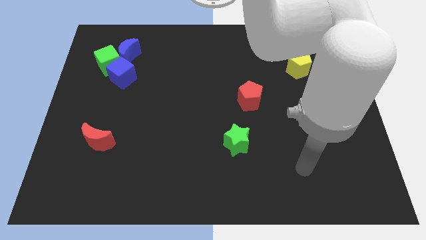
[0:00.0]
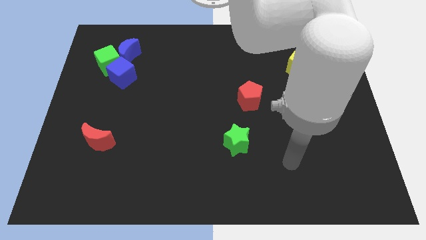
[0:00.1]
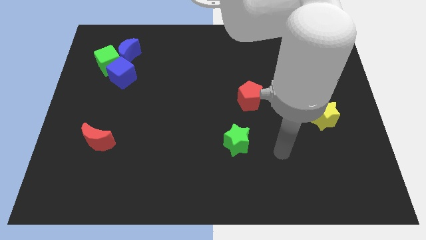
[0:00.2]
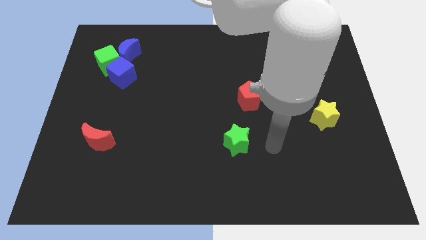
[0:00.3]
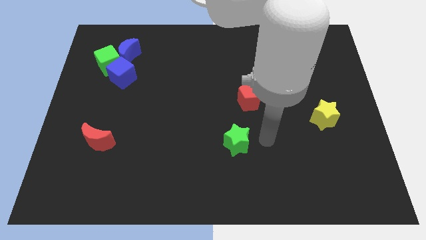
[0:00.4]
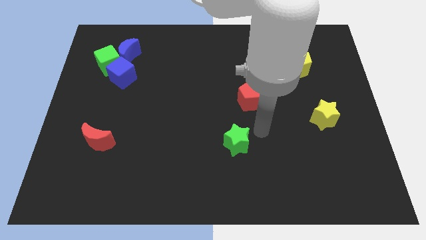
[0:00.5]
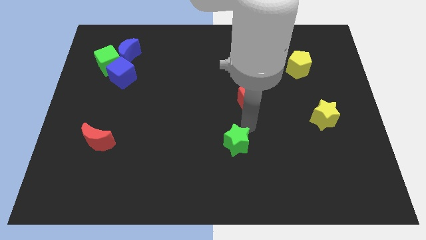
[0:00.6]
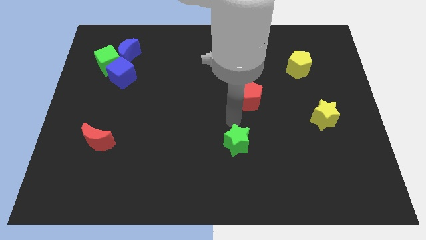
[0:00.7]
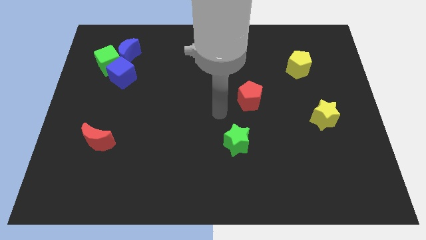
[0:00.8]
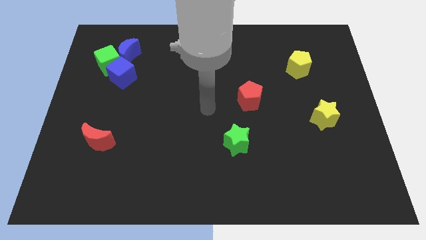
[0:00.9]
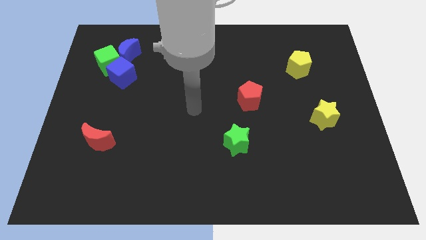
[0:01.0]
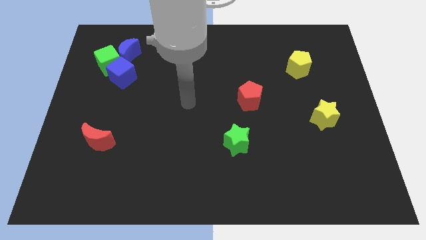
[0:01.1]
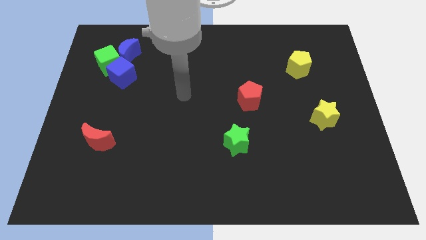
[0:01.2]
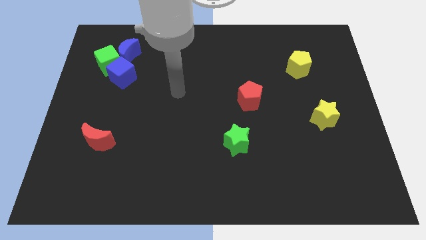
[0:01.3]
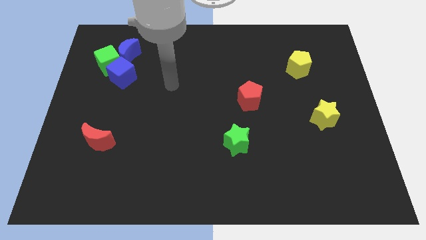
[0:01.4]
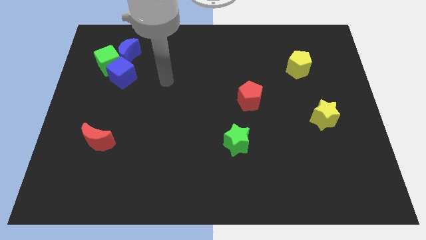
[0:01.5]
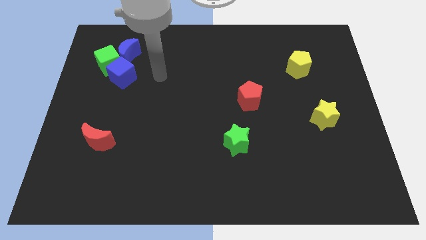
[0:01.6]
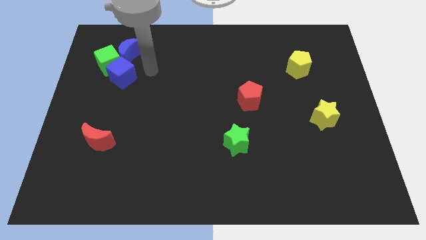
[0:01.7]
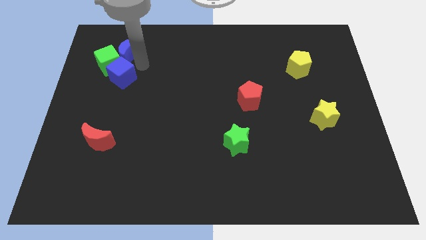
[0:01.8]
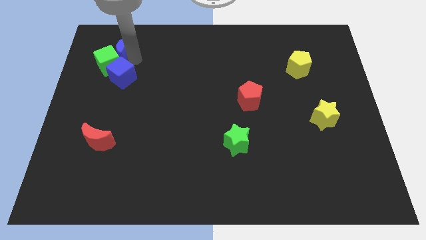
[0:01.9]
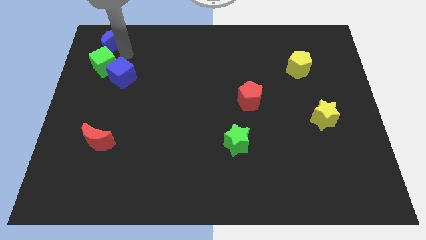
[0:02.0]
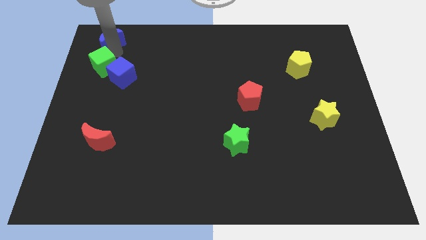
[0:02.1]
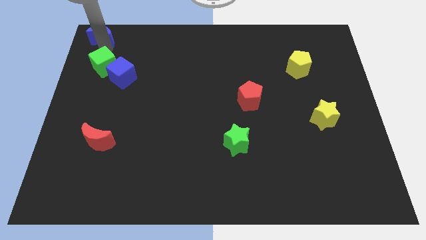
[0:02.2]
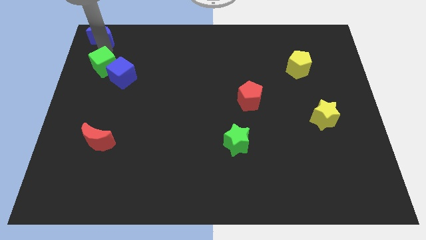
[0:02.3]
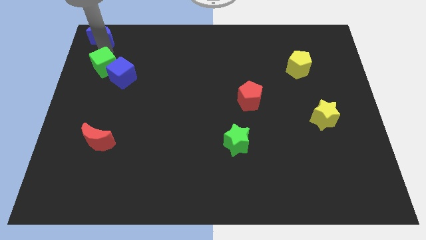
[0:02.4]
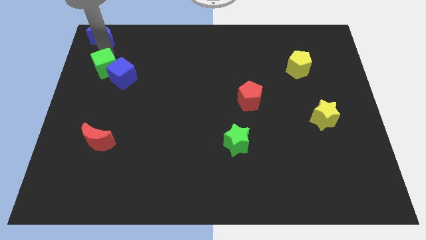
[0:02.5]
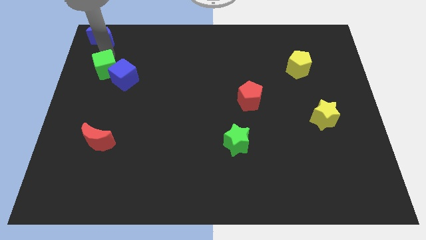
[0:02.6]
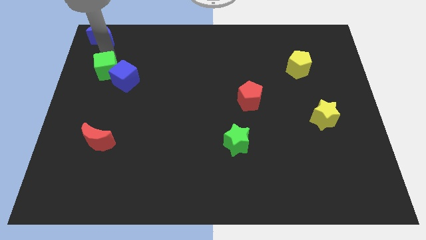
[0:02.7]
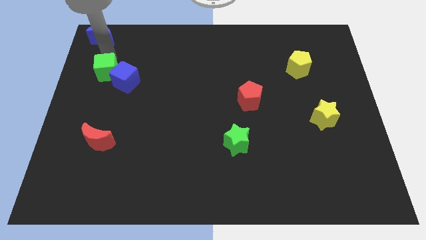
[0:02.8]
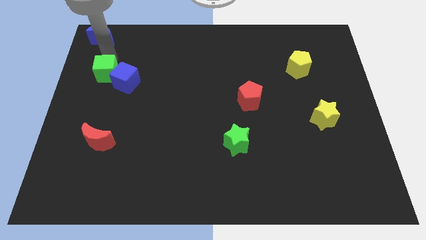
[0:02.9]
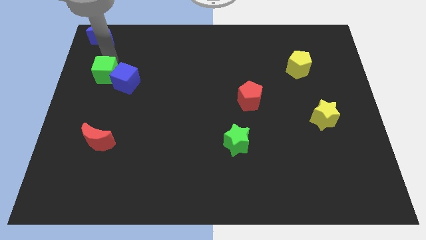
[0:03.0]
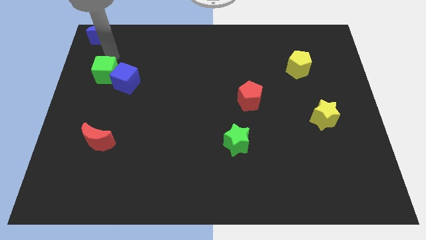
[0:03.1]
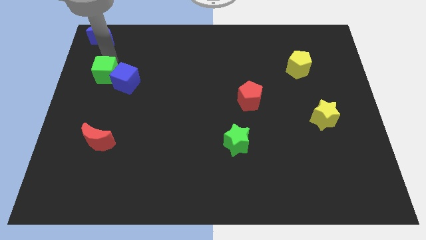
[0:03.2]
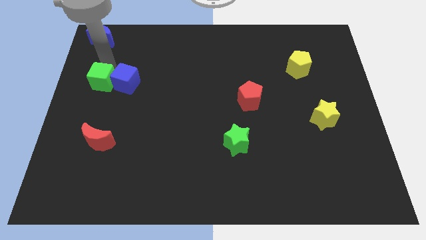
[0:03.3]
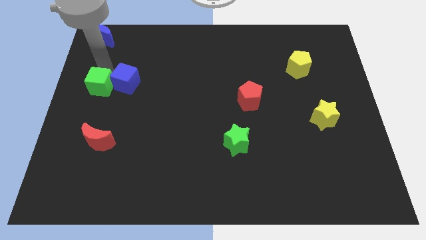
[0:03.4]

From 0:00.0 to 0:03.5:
slightly slide the green cube down

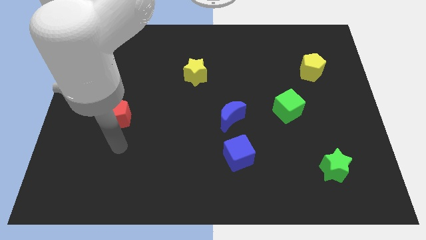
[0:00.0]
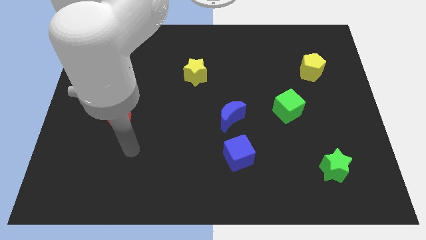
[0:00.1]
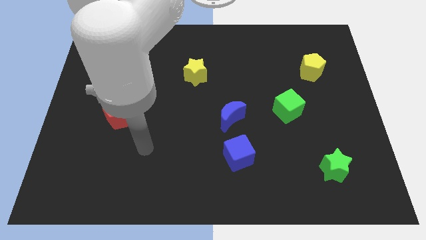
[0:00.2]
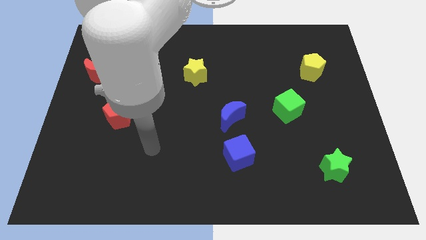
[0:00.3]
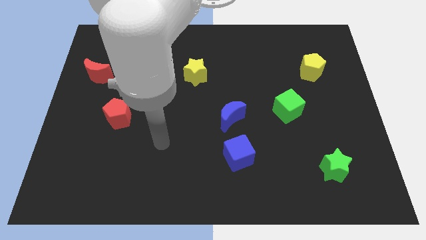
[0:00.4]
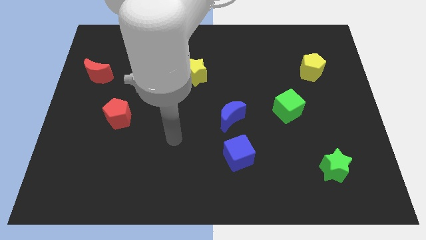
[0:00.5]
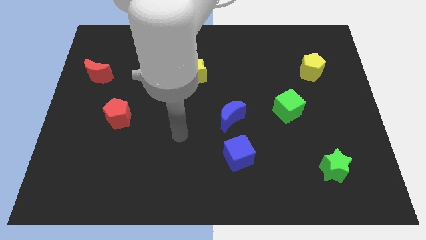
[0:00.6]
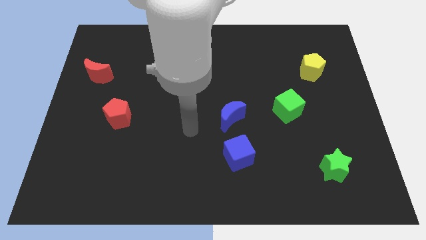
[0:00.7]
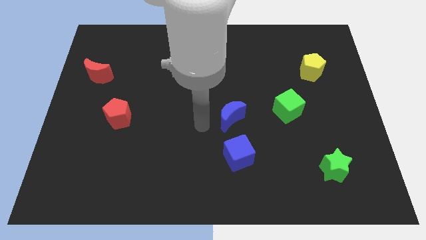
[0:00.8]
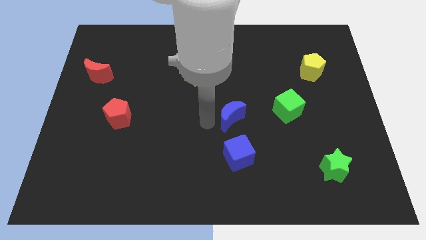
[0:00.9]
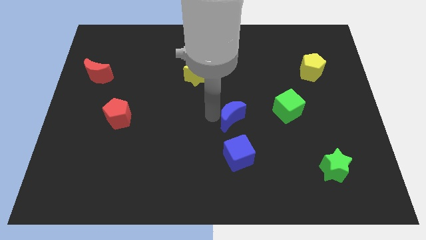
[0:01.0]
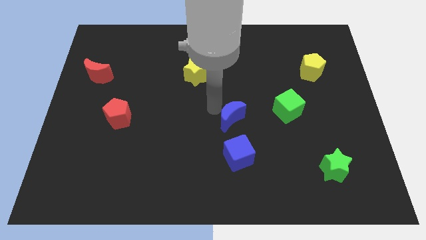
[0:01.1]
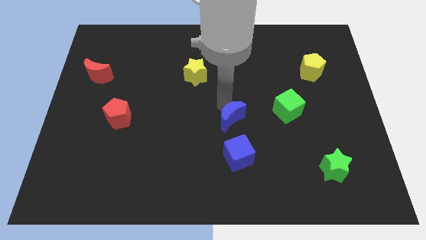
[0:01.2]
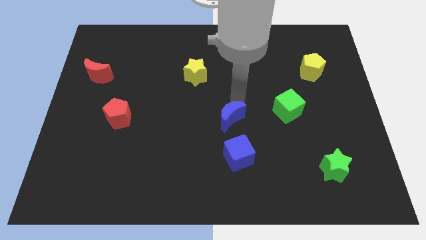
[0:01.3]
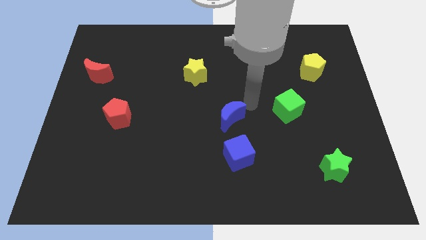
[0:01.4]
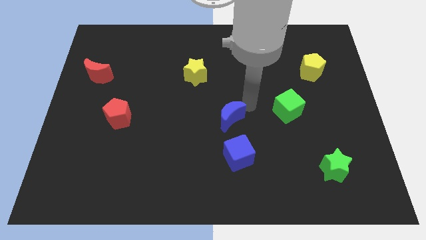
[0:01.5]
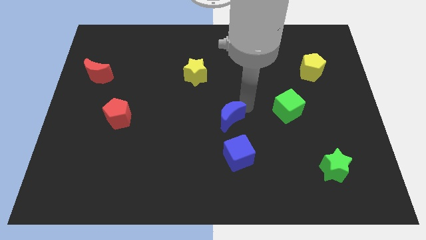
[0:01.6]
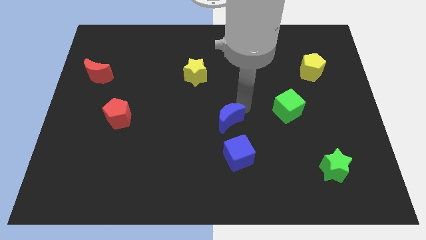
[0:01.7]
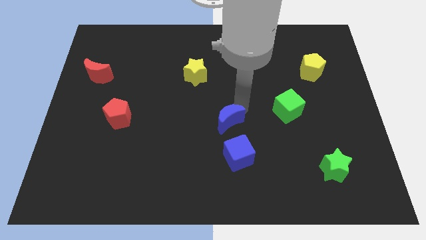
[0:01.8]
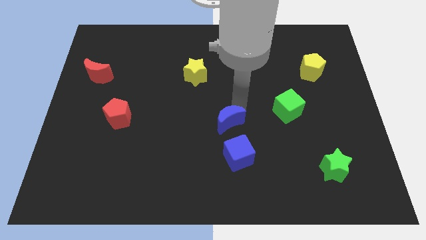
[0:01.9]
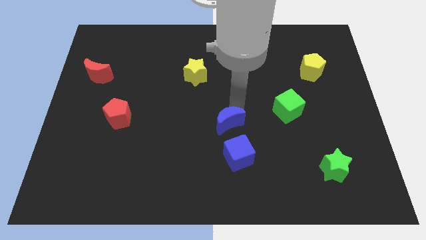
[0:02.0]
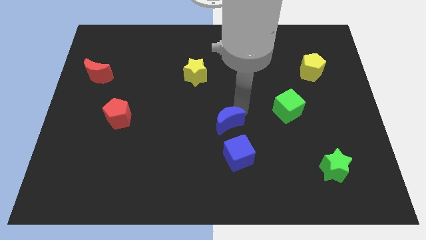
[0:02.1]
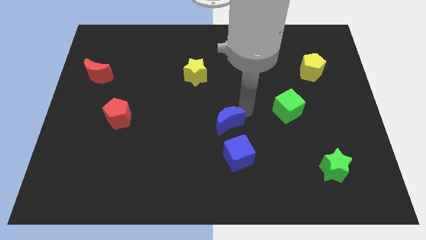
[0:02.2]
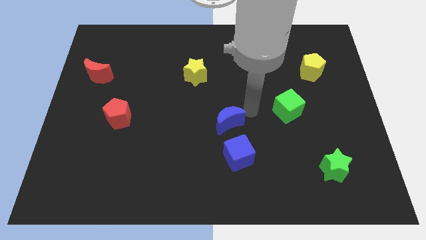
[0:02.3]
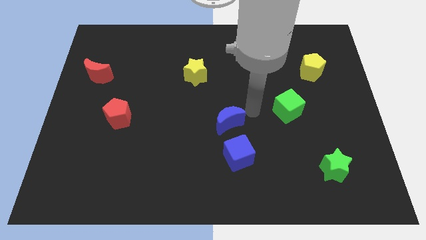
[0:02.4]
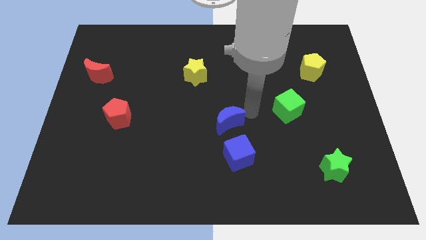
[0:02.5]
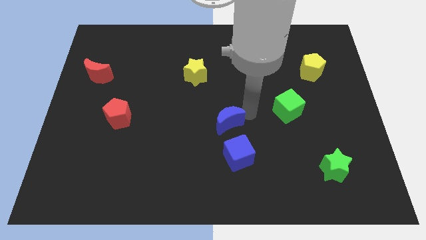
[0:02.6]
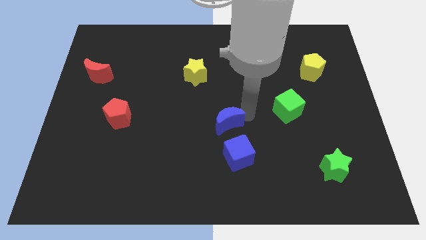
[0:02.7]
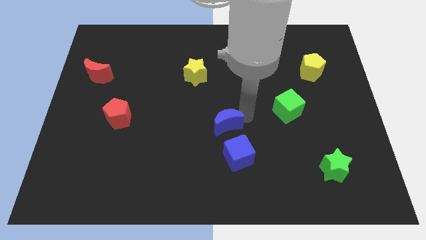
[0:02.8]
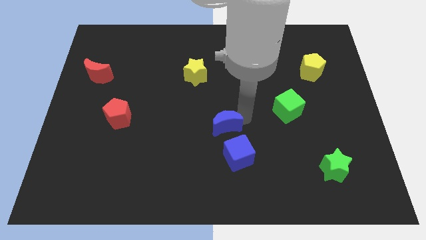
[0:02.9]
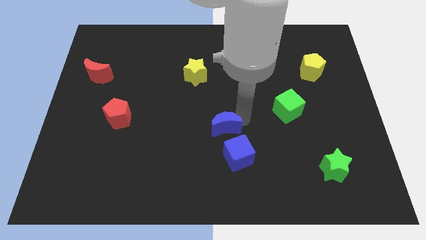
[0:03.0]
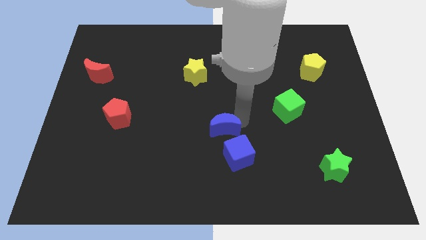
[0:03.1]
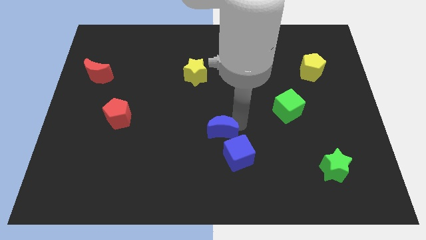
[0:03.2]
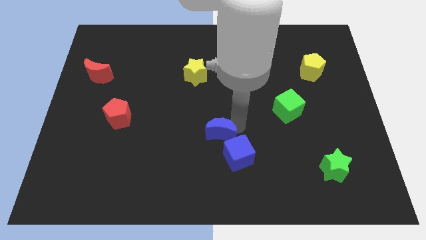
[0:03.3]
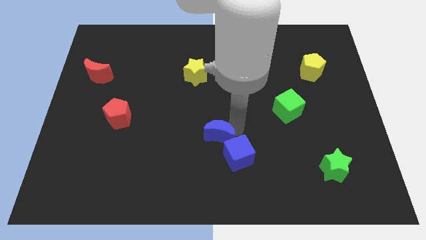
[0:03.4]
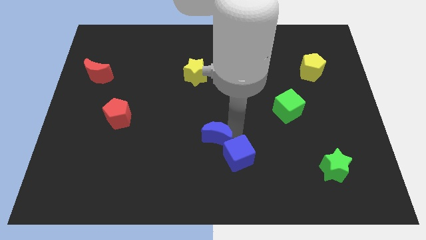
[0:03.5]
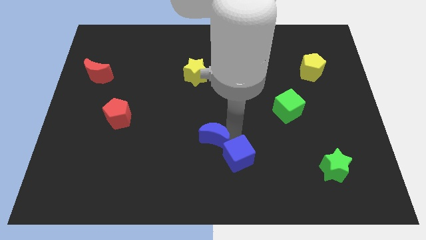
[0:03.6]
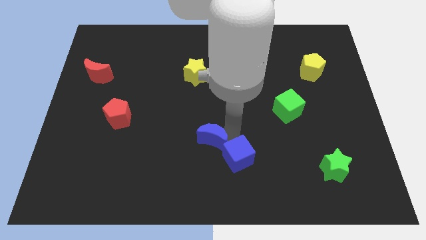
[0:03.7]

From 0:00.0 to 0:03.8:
slide the blue moon somewhat down and then left

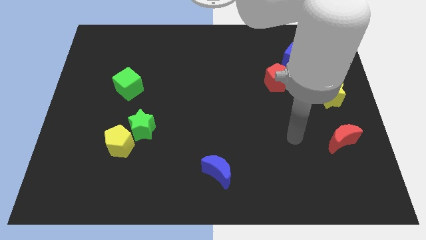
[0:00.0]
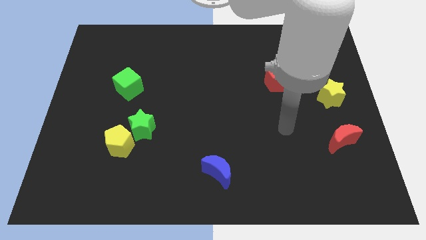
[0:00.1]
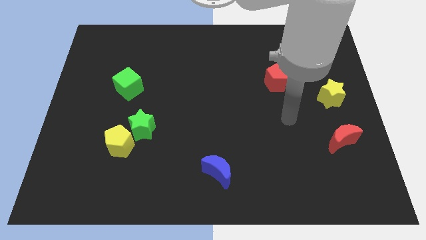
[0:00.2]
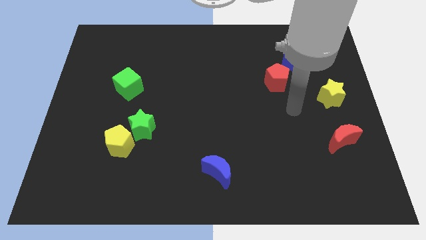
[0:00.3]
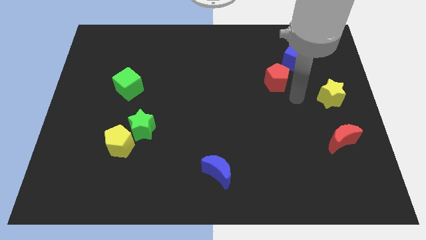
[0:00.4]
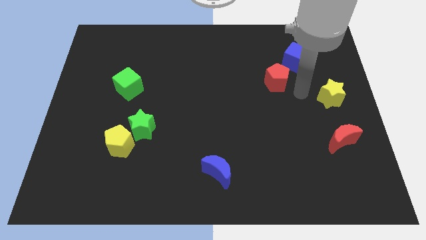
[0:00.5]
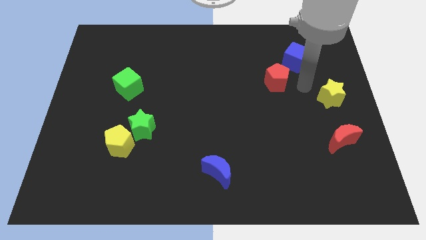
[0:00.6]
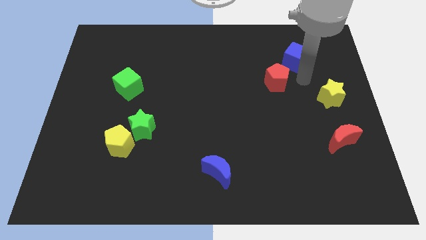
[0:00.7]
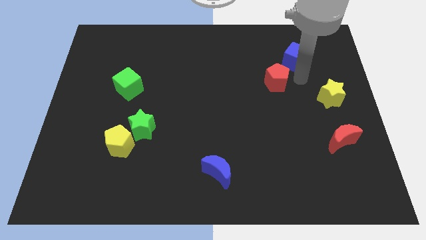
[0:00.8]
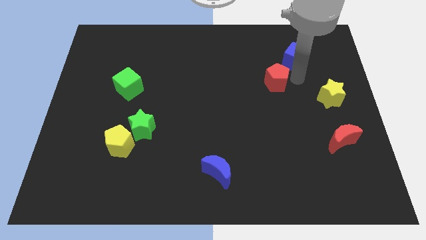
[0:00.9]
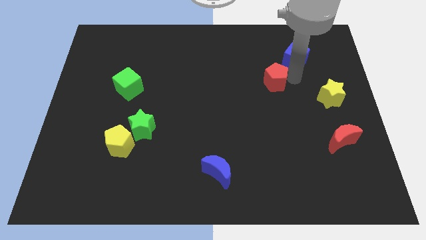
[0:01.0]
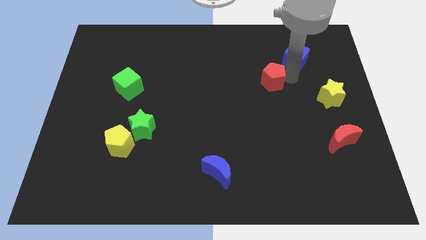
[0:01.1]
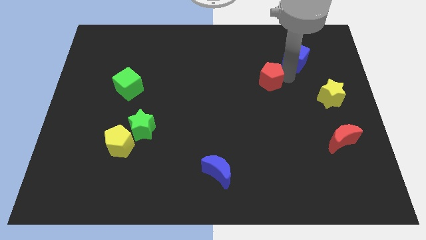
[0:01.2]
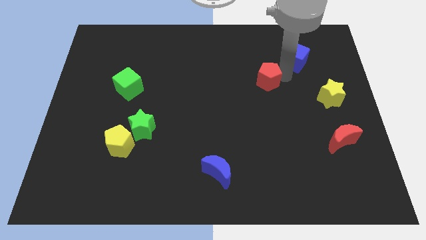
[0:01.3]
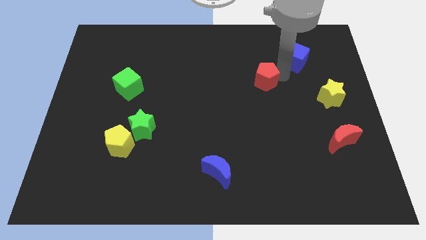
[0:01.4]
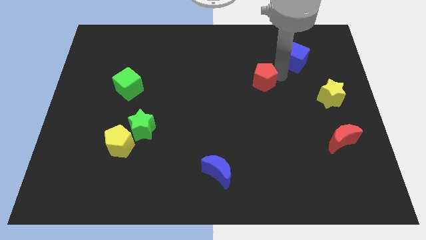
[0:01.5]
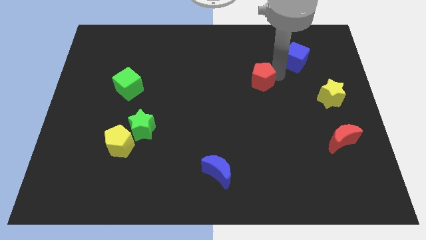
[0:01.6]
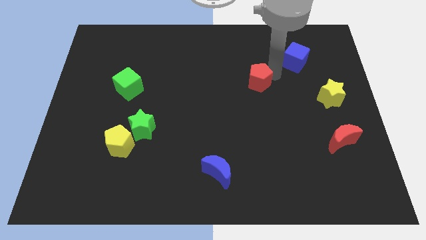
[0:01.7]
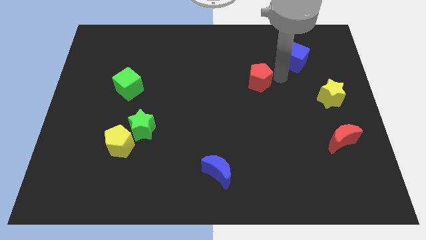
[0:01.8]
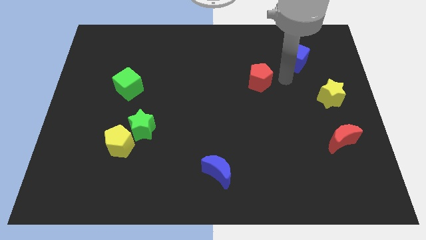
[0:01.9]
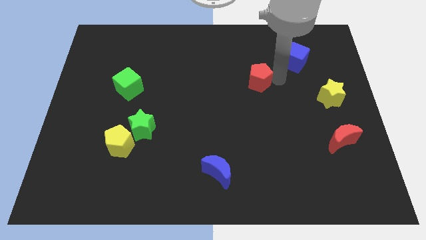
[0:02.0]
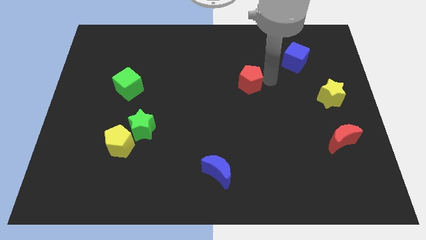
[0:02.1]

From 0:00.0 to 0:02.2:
slide the red pentagon left slightly
